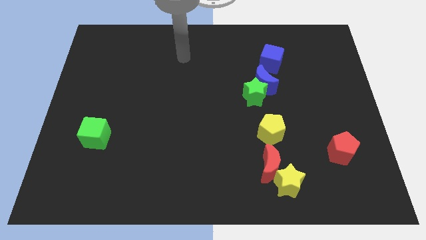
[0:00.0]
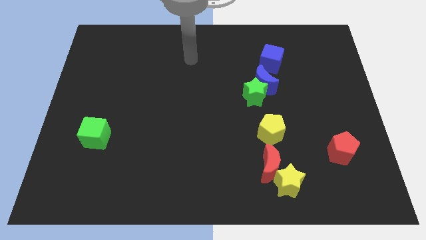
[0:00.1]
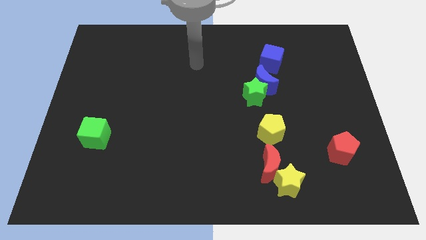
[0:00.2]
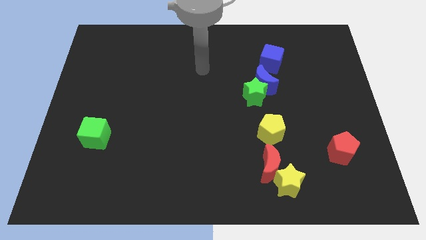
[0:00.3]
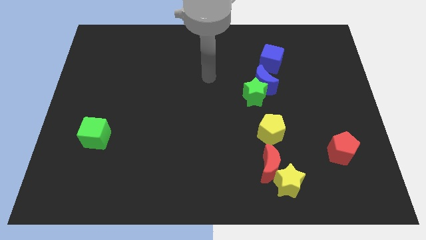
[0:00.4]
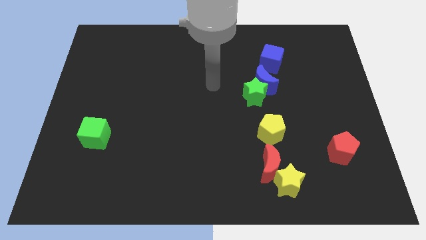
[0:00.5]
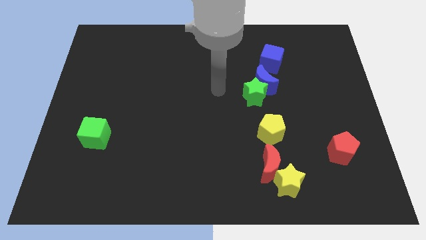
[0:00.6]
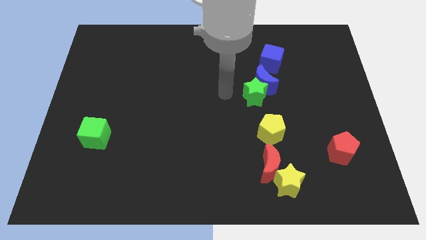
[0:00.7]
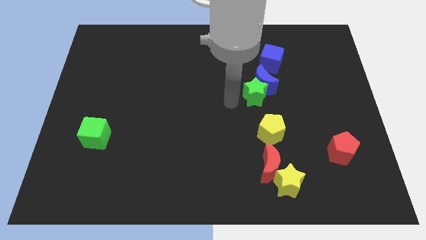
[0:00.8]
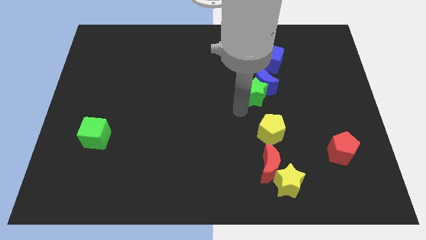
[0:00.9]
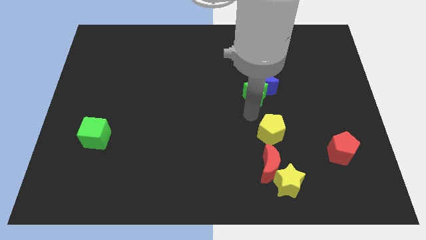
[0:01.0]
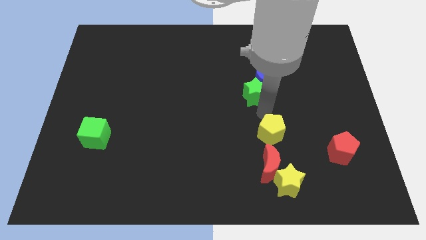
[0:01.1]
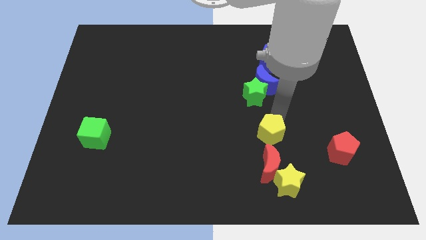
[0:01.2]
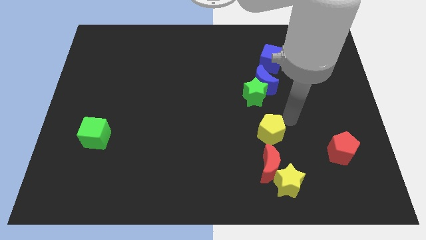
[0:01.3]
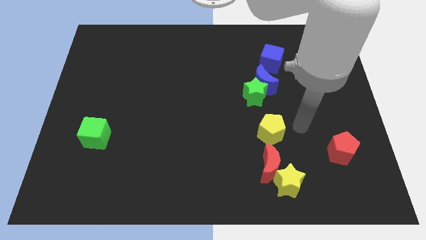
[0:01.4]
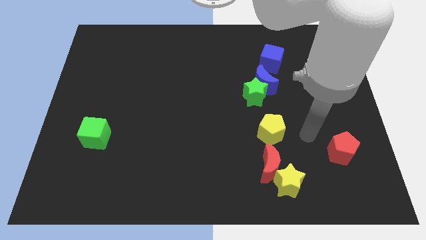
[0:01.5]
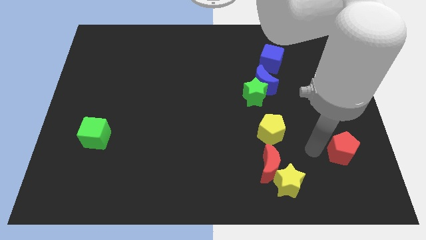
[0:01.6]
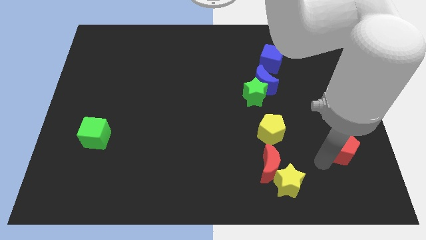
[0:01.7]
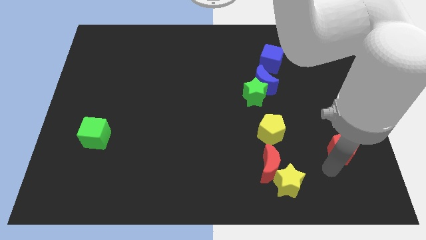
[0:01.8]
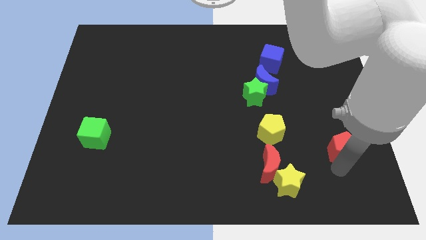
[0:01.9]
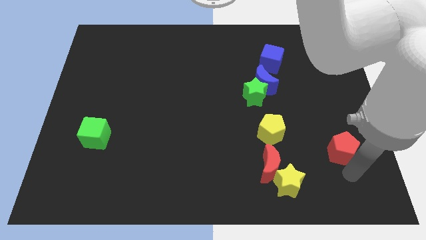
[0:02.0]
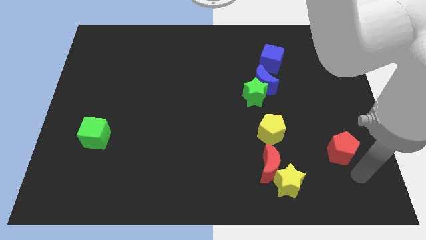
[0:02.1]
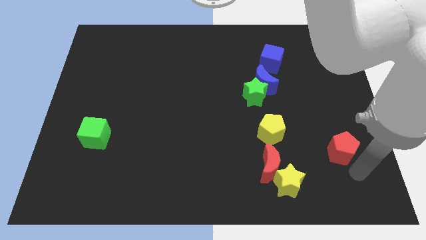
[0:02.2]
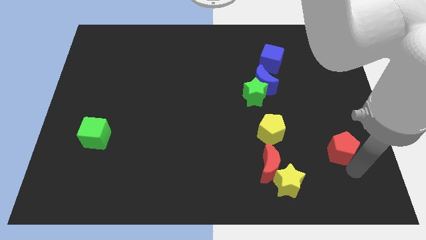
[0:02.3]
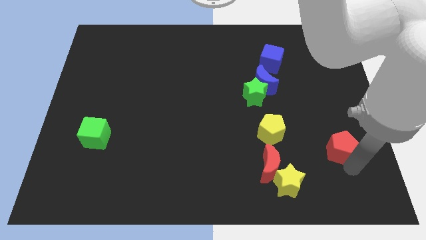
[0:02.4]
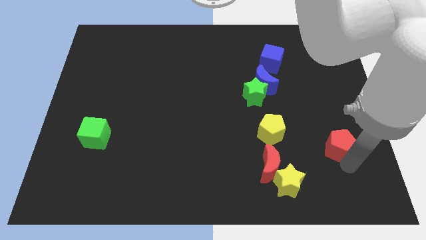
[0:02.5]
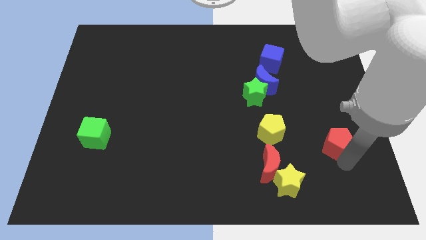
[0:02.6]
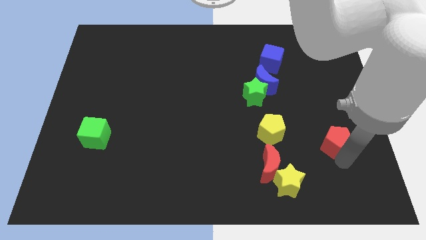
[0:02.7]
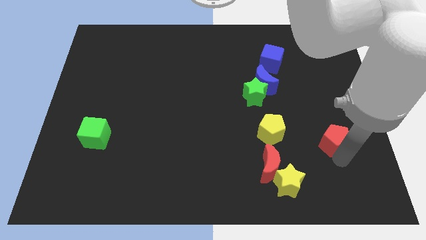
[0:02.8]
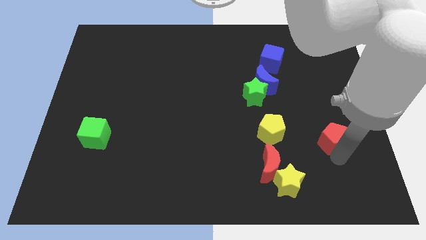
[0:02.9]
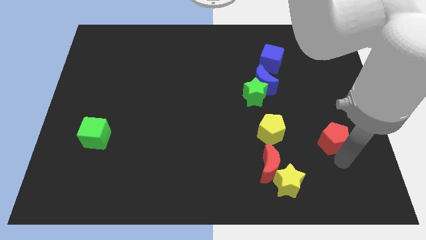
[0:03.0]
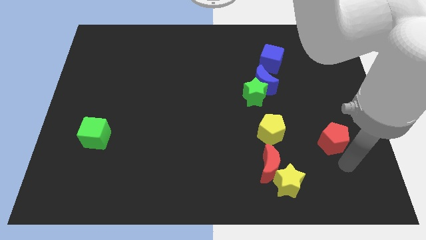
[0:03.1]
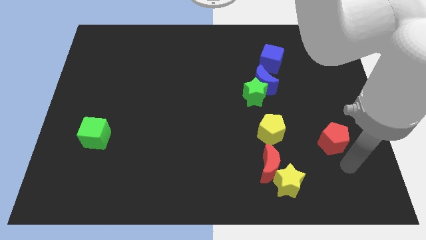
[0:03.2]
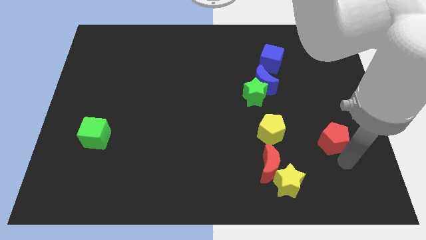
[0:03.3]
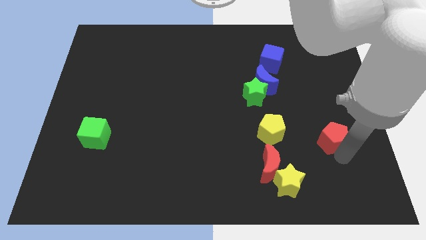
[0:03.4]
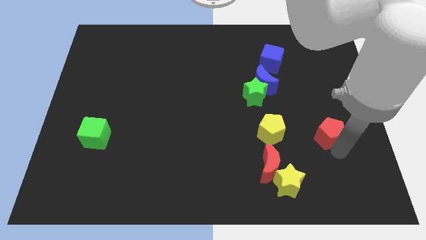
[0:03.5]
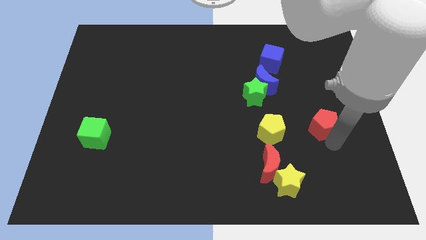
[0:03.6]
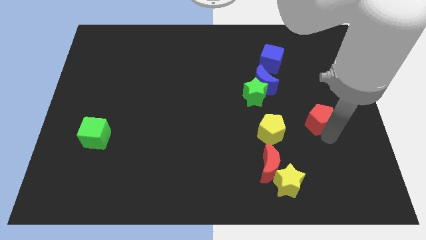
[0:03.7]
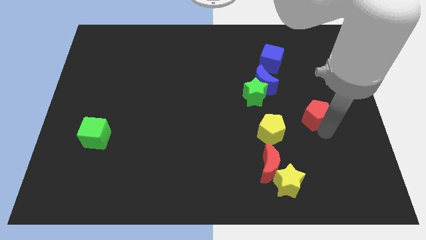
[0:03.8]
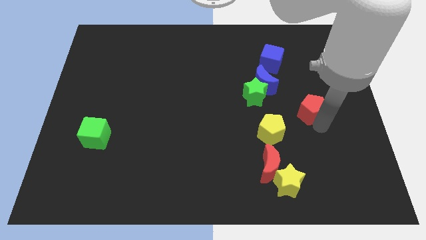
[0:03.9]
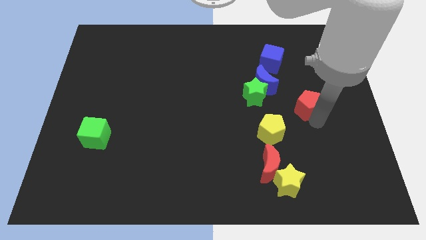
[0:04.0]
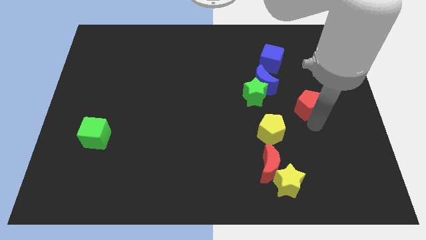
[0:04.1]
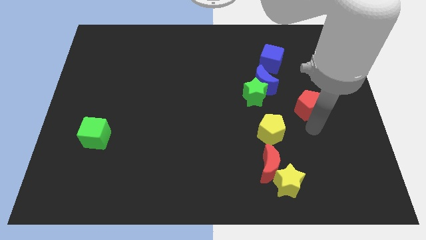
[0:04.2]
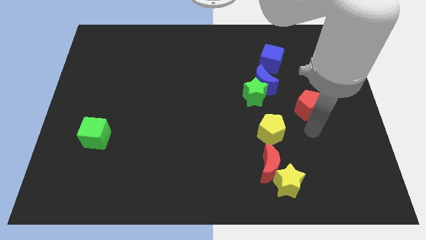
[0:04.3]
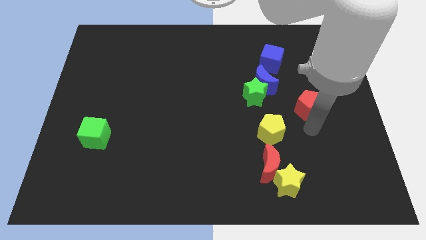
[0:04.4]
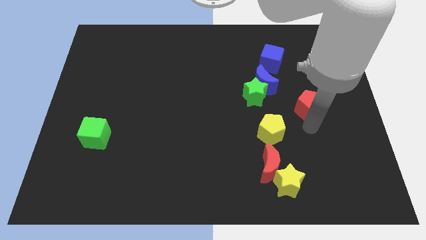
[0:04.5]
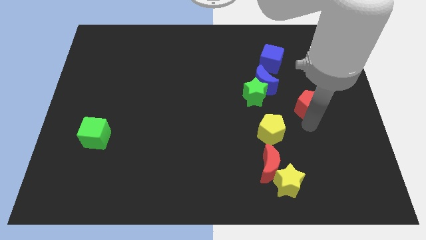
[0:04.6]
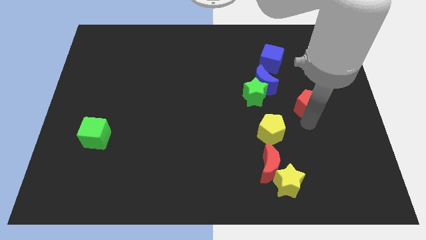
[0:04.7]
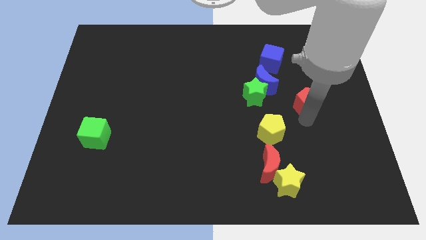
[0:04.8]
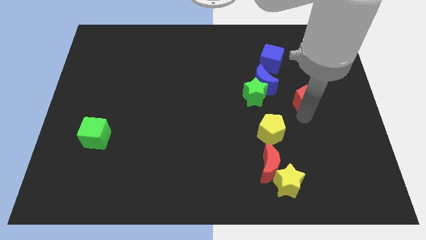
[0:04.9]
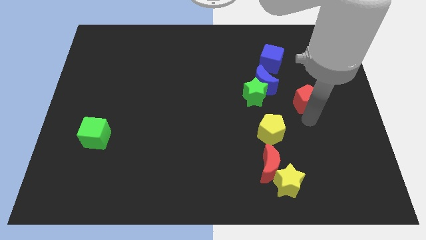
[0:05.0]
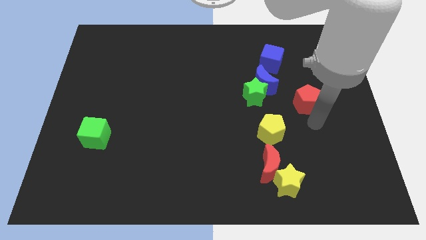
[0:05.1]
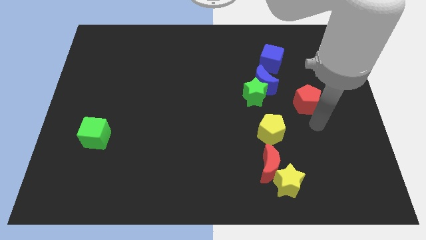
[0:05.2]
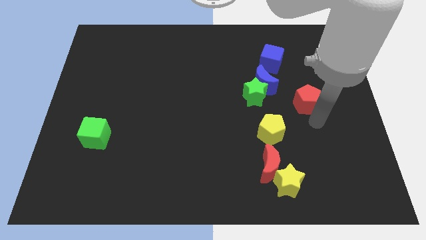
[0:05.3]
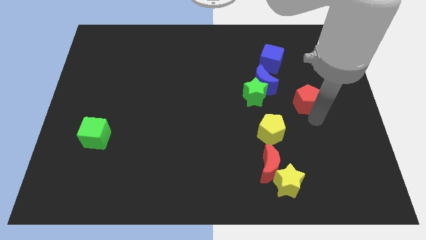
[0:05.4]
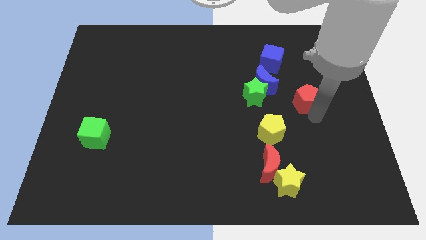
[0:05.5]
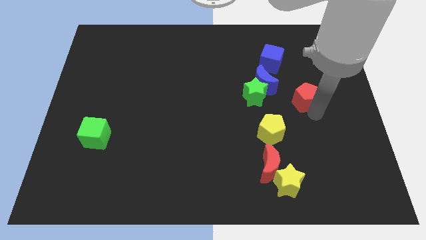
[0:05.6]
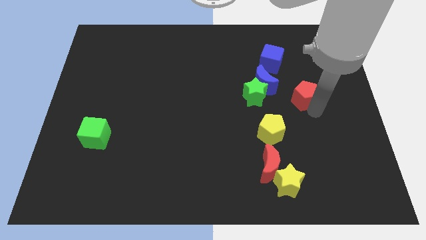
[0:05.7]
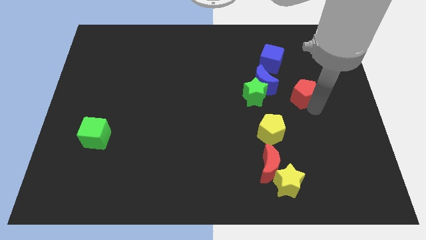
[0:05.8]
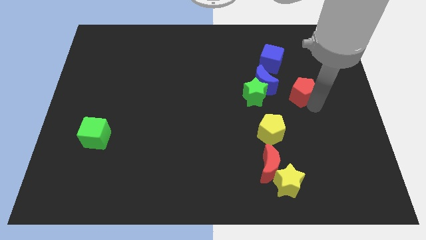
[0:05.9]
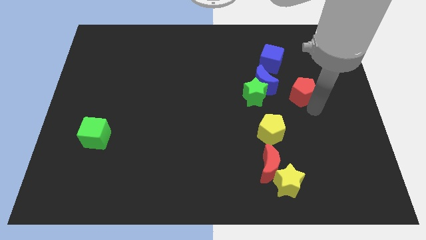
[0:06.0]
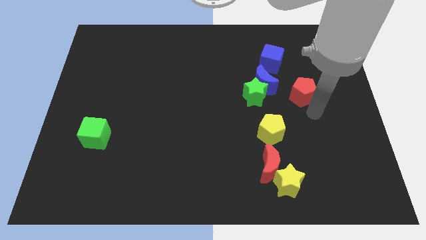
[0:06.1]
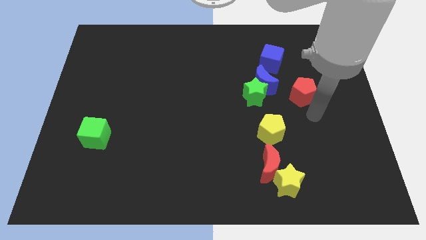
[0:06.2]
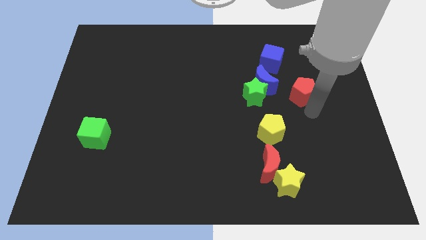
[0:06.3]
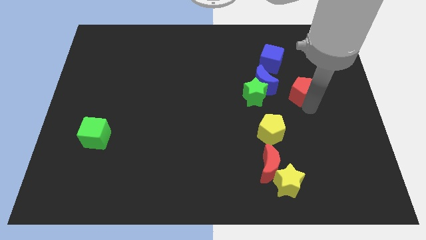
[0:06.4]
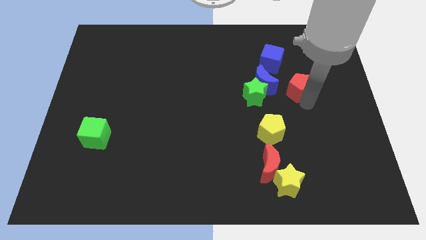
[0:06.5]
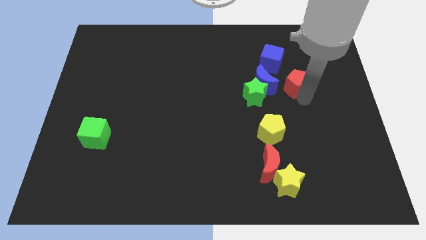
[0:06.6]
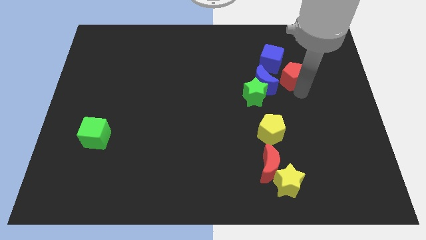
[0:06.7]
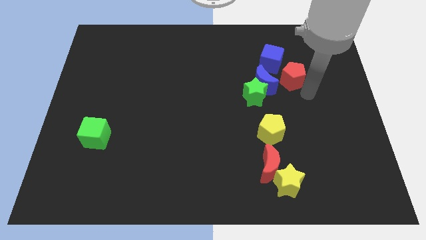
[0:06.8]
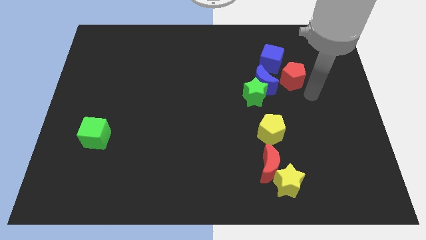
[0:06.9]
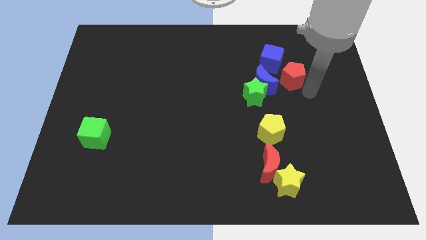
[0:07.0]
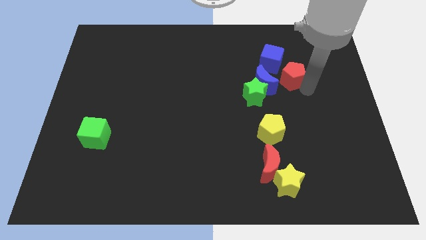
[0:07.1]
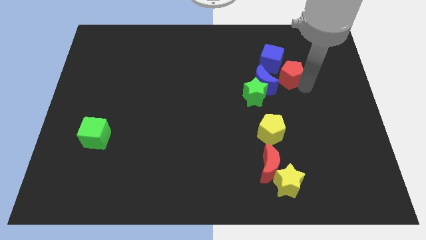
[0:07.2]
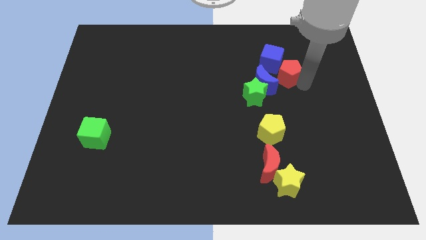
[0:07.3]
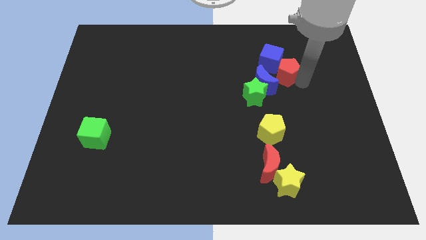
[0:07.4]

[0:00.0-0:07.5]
put the red pentagon next to the blue cube

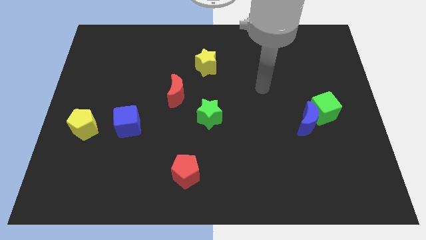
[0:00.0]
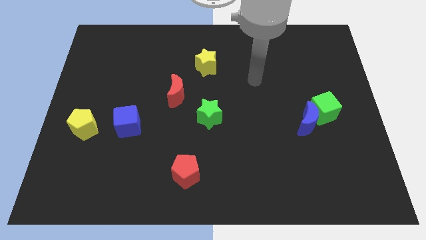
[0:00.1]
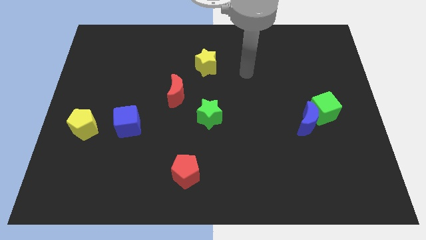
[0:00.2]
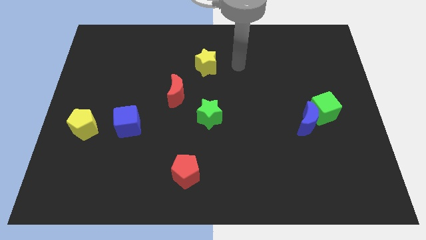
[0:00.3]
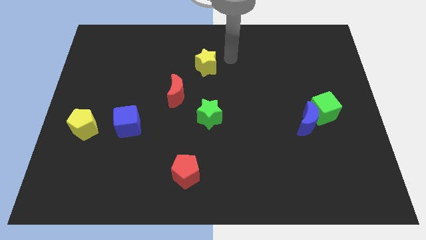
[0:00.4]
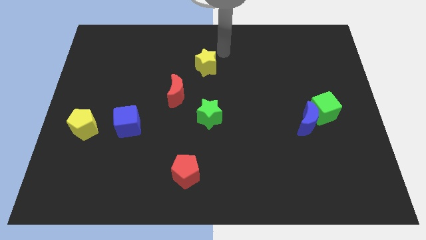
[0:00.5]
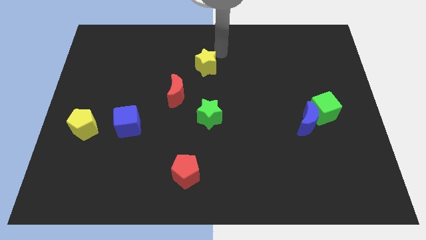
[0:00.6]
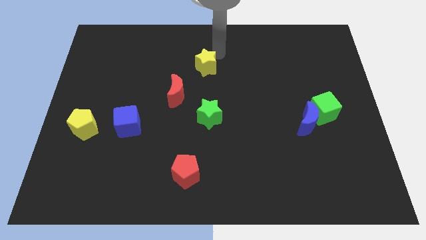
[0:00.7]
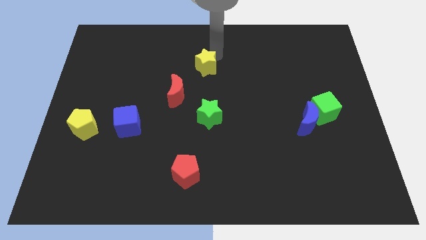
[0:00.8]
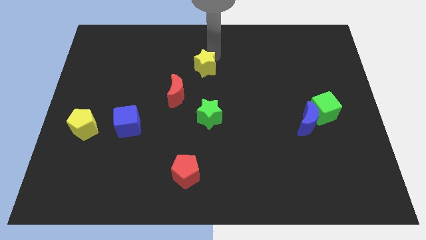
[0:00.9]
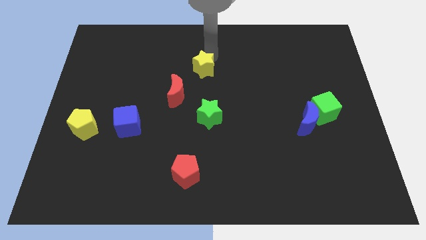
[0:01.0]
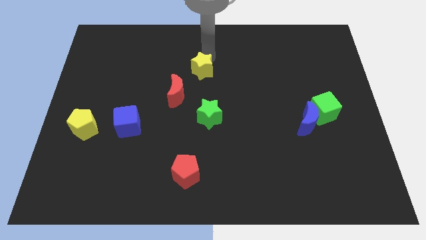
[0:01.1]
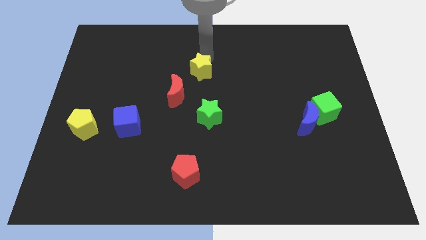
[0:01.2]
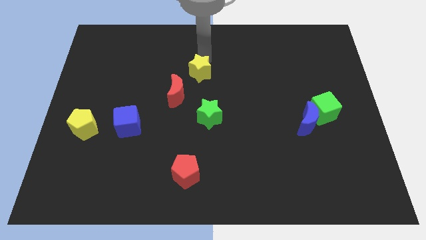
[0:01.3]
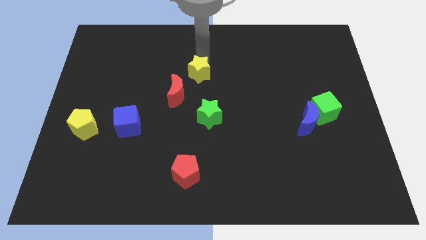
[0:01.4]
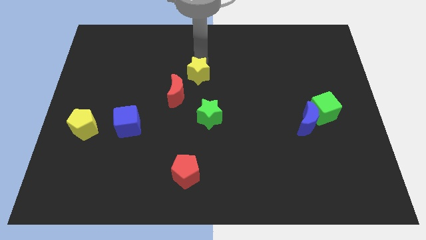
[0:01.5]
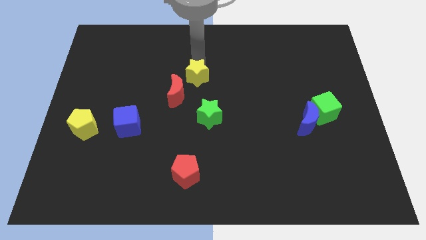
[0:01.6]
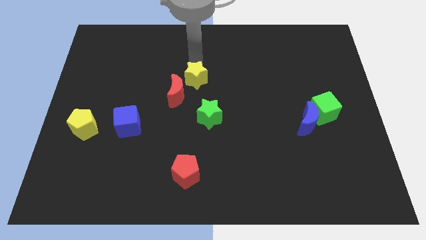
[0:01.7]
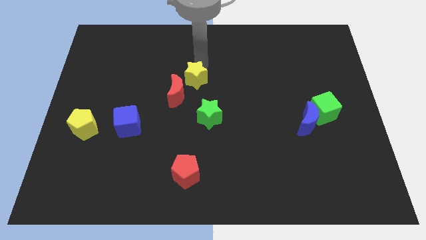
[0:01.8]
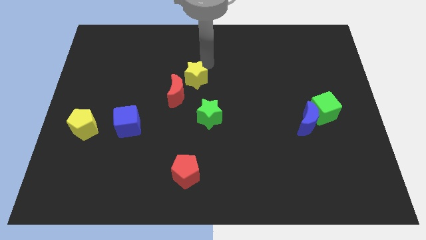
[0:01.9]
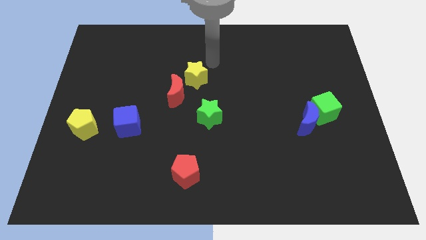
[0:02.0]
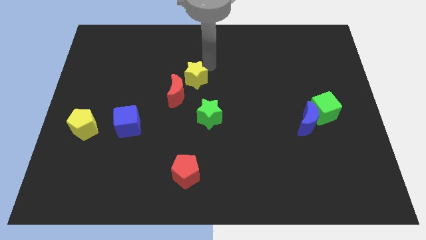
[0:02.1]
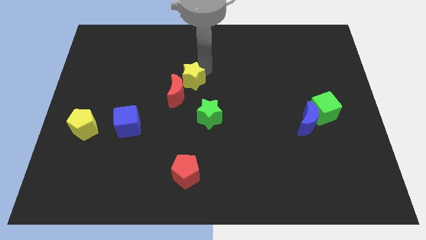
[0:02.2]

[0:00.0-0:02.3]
put the yellow star towards the red moon
